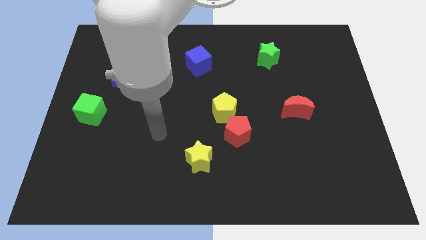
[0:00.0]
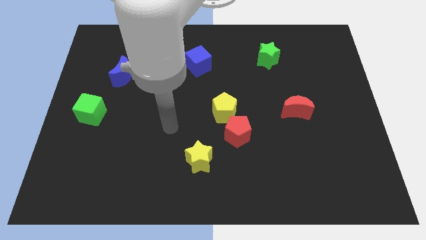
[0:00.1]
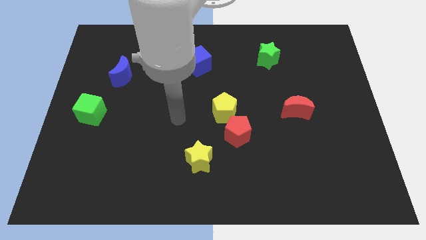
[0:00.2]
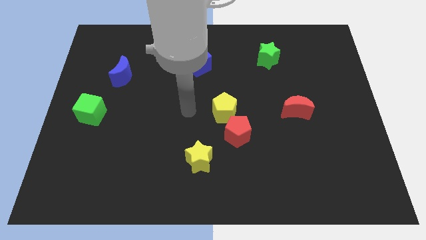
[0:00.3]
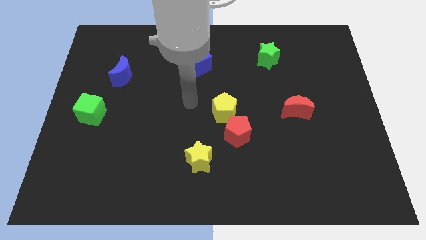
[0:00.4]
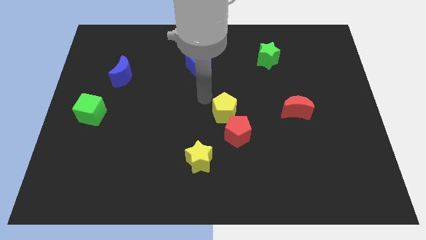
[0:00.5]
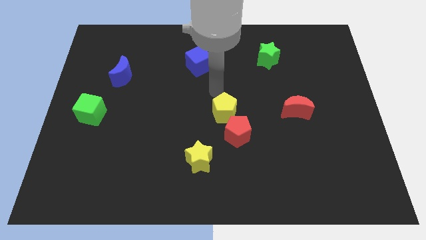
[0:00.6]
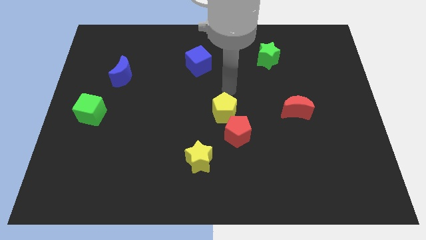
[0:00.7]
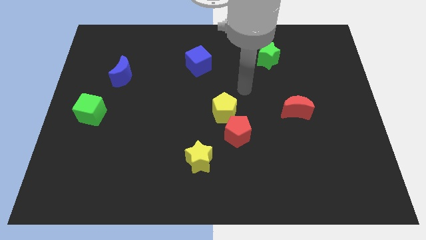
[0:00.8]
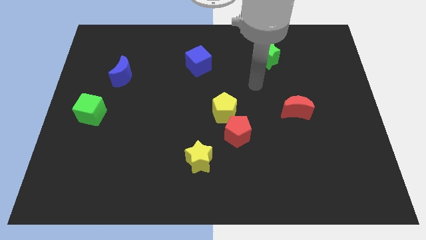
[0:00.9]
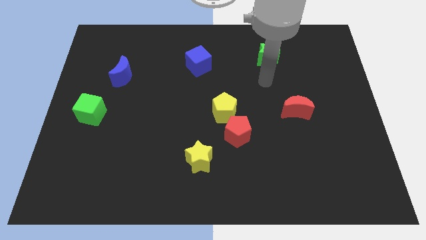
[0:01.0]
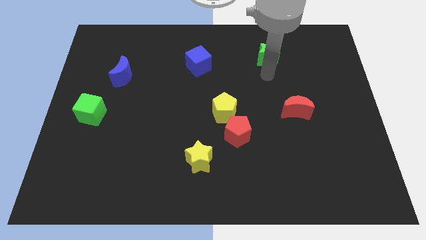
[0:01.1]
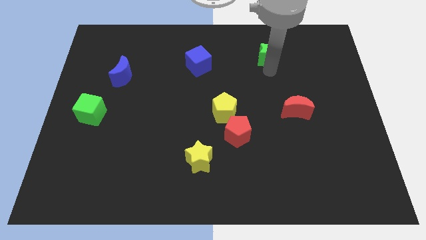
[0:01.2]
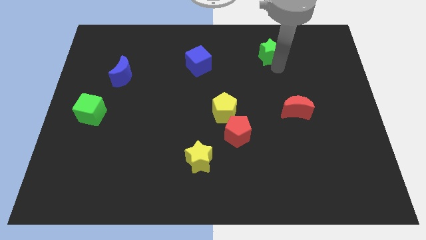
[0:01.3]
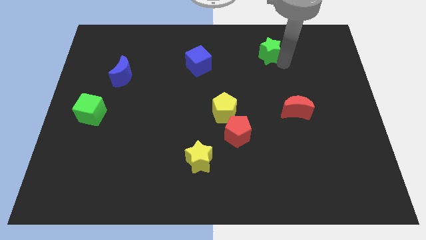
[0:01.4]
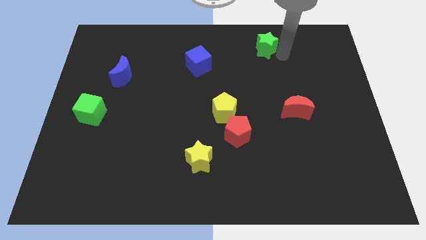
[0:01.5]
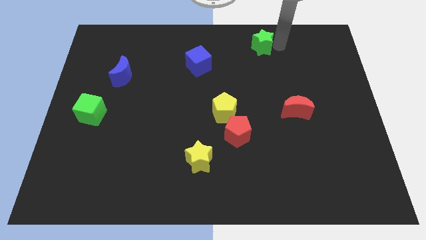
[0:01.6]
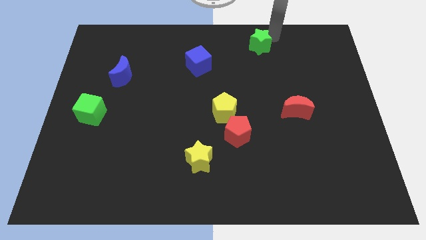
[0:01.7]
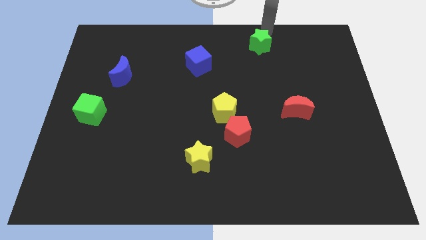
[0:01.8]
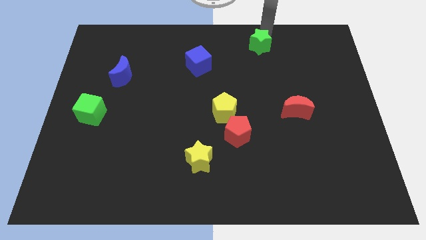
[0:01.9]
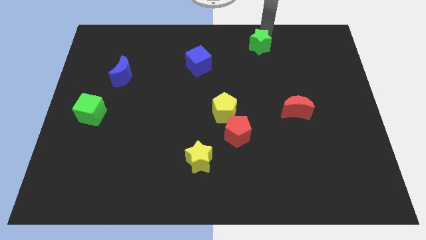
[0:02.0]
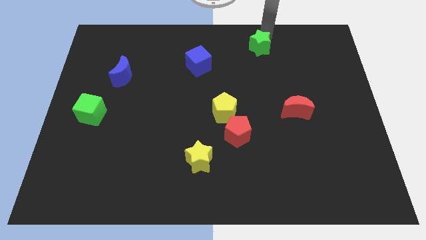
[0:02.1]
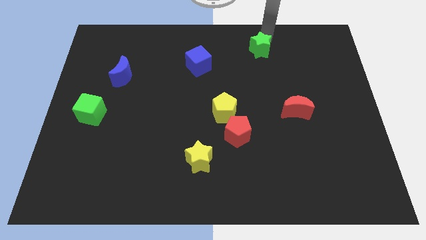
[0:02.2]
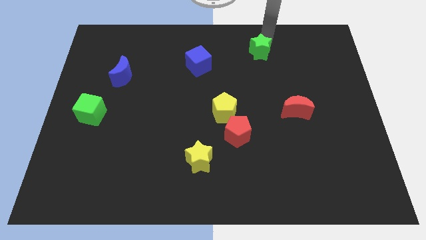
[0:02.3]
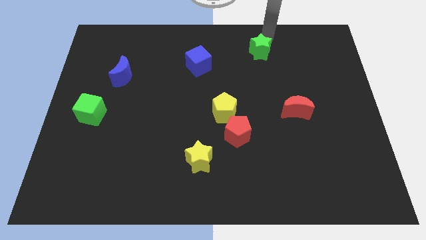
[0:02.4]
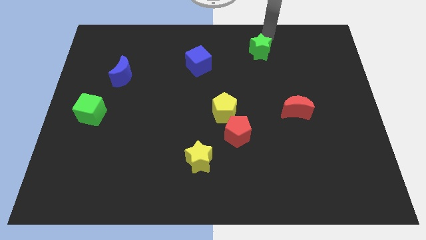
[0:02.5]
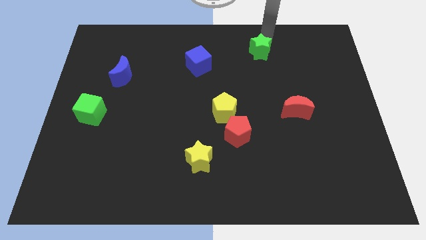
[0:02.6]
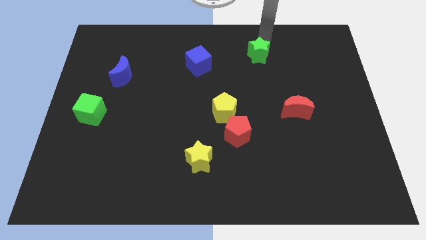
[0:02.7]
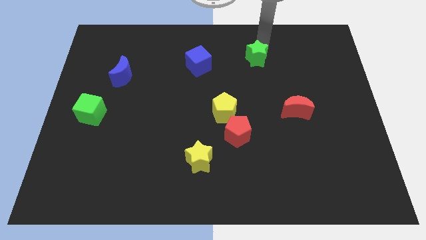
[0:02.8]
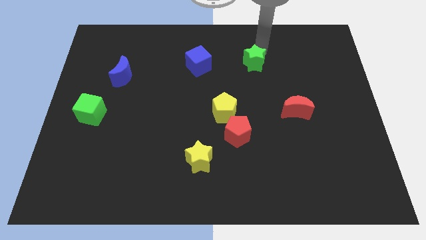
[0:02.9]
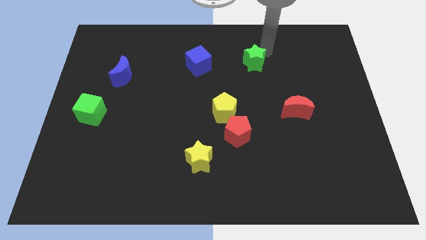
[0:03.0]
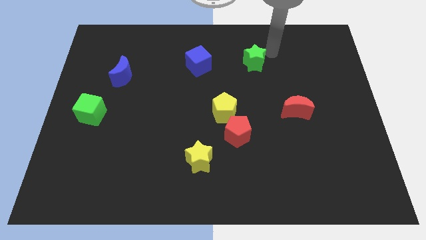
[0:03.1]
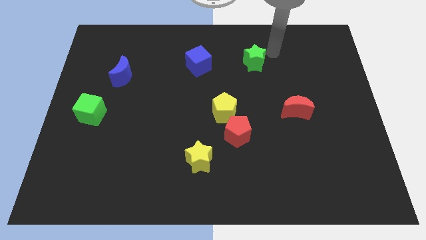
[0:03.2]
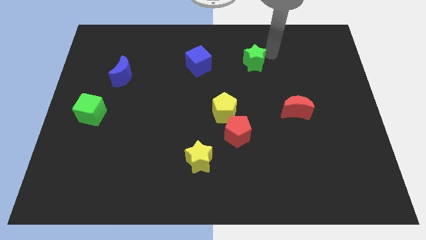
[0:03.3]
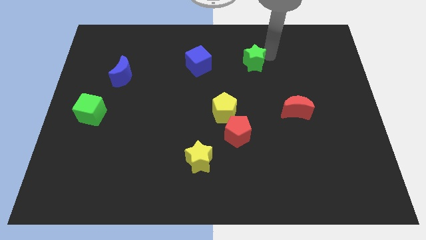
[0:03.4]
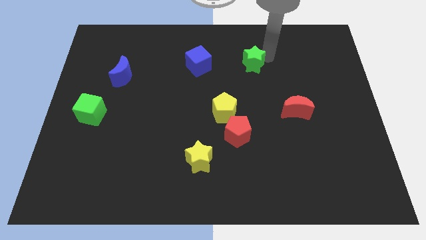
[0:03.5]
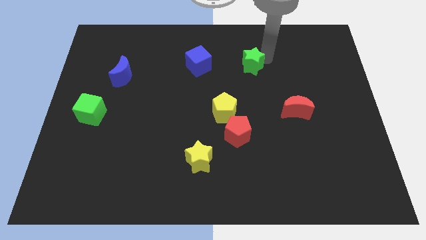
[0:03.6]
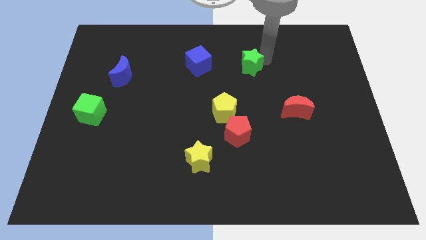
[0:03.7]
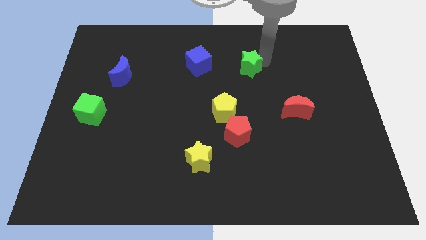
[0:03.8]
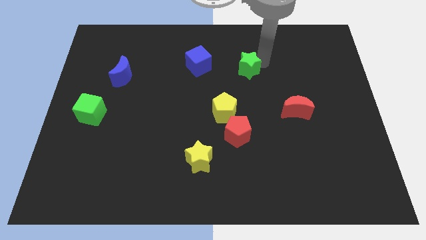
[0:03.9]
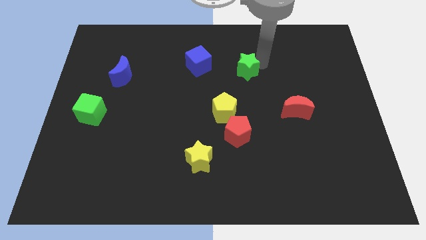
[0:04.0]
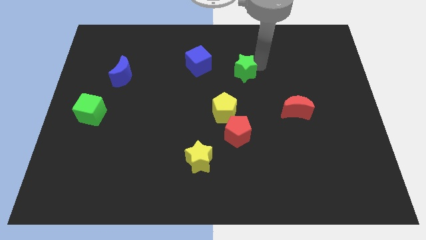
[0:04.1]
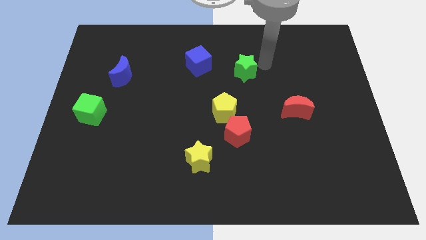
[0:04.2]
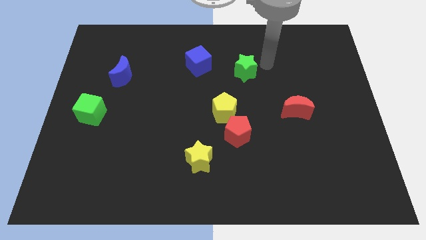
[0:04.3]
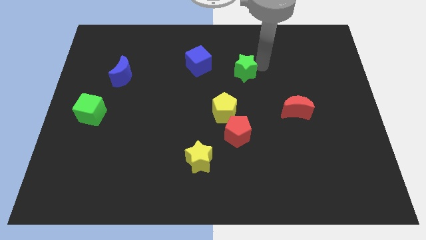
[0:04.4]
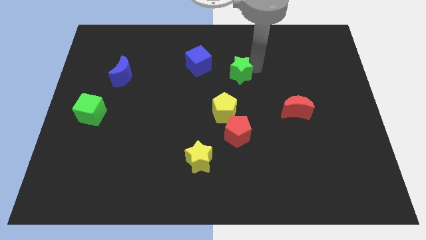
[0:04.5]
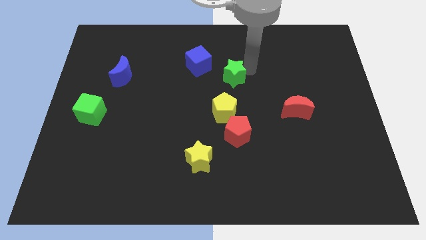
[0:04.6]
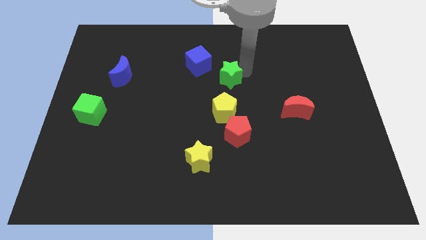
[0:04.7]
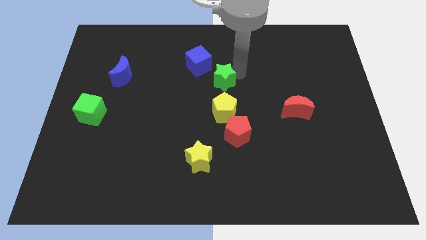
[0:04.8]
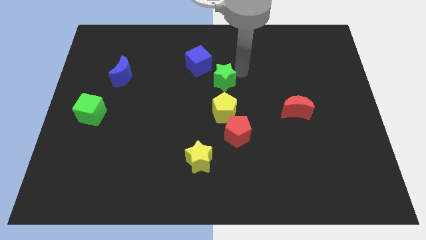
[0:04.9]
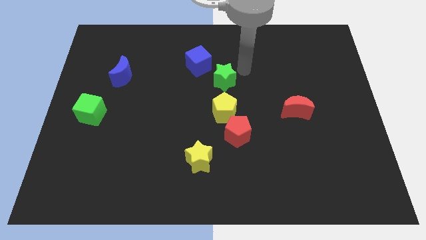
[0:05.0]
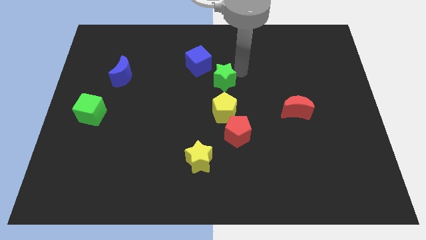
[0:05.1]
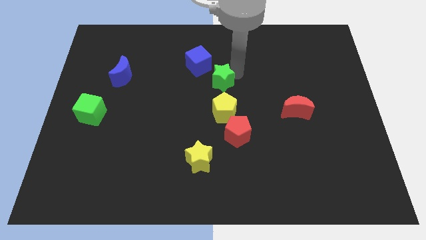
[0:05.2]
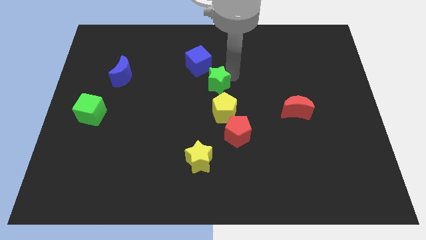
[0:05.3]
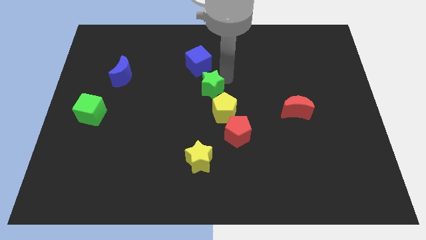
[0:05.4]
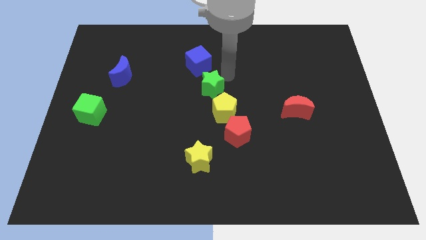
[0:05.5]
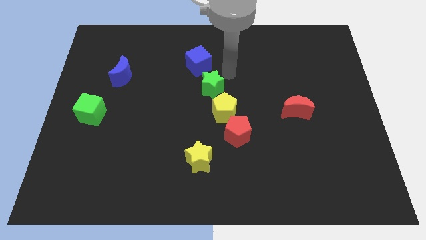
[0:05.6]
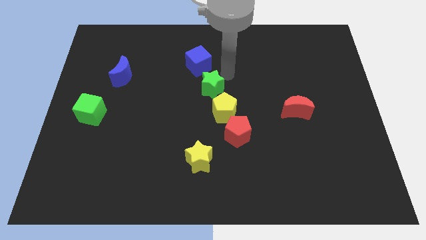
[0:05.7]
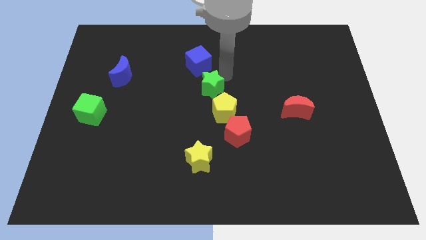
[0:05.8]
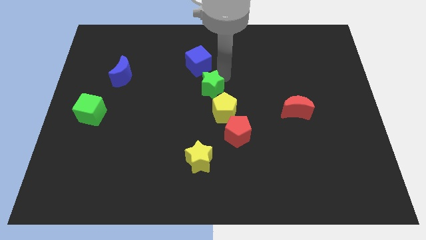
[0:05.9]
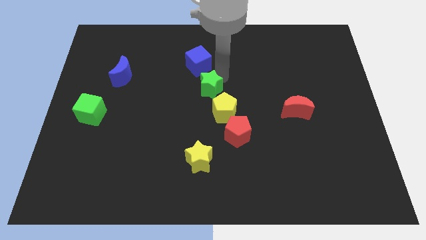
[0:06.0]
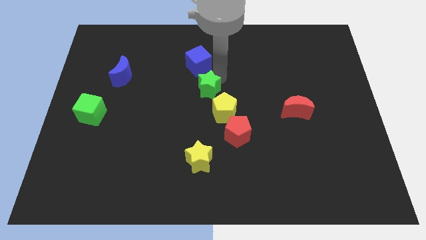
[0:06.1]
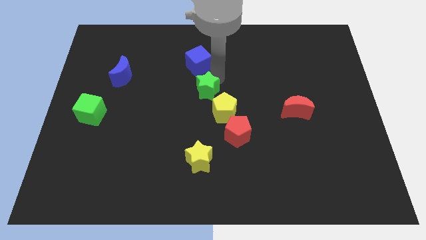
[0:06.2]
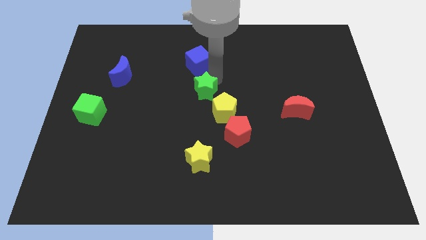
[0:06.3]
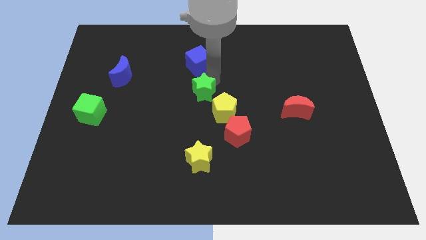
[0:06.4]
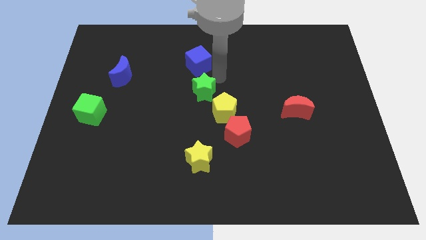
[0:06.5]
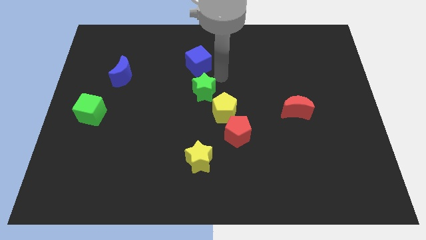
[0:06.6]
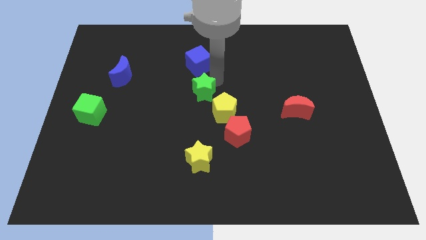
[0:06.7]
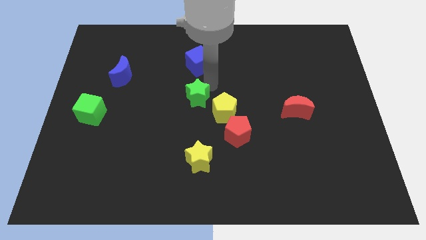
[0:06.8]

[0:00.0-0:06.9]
put the green star left of the yellow pentagon

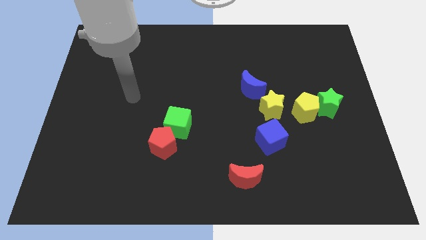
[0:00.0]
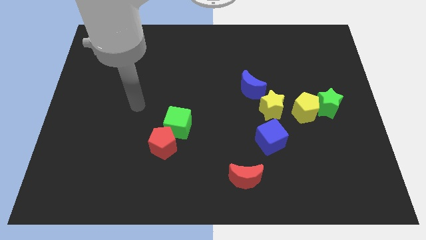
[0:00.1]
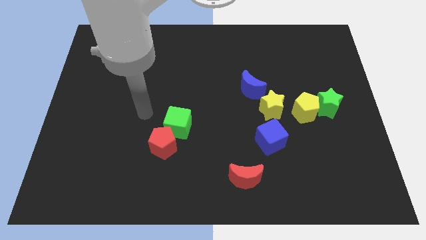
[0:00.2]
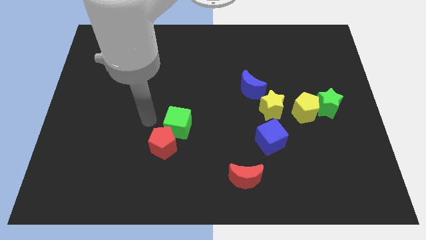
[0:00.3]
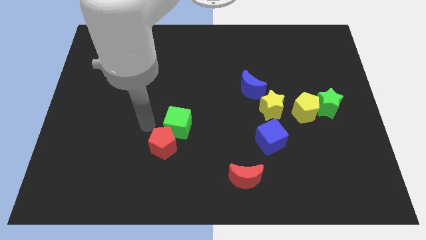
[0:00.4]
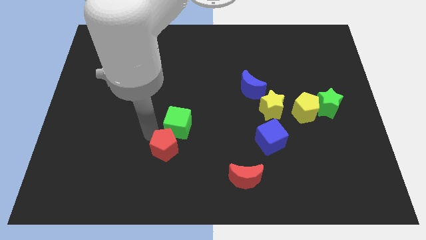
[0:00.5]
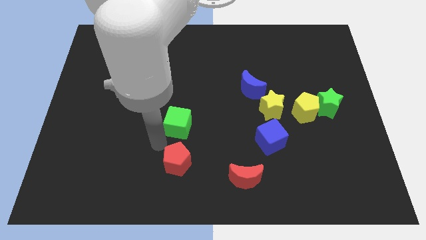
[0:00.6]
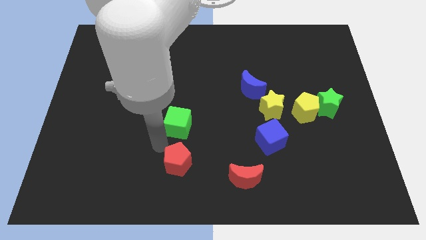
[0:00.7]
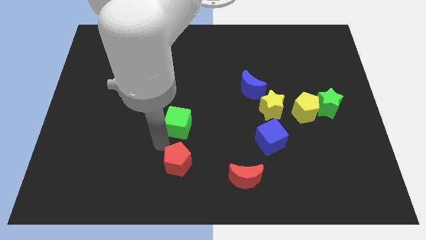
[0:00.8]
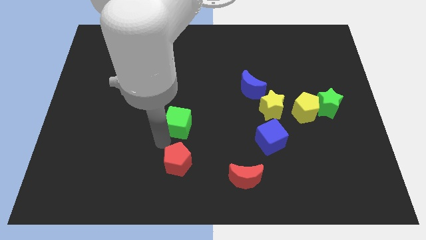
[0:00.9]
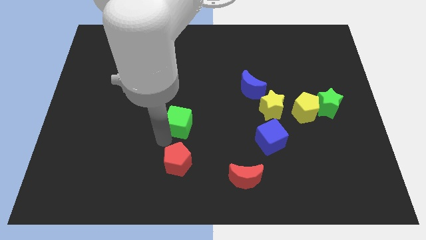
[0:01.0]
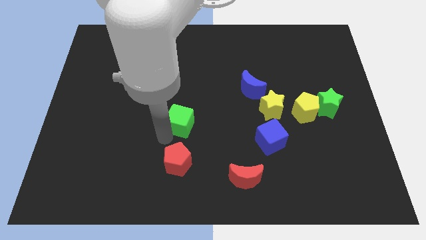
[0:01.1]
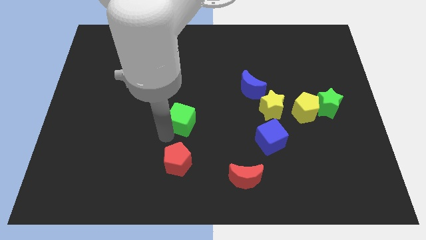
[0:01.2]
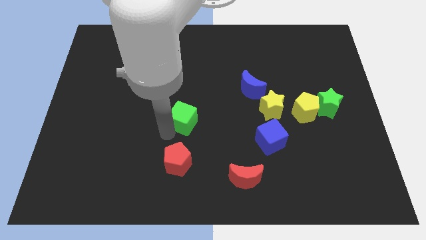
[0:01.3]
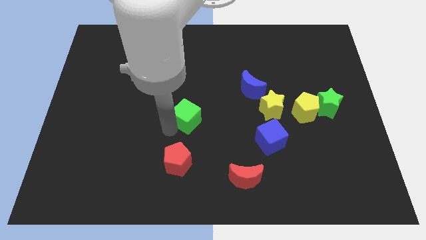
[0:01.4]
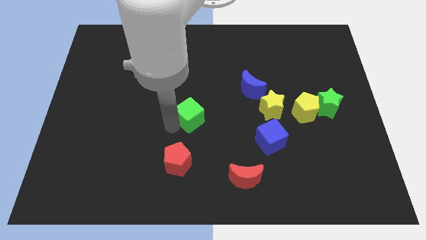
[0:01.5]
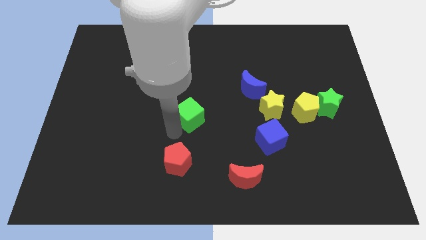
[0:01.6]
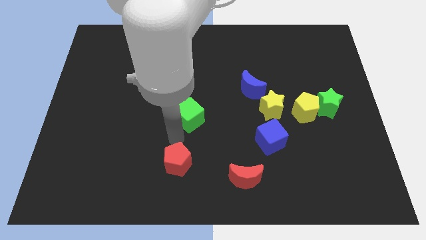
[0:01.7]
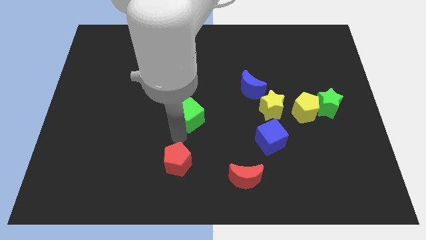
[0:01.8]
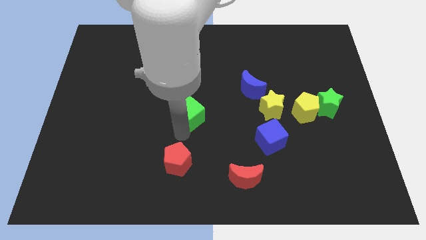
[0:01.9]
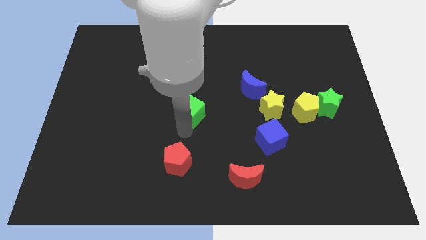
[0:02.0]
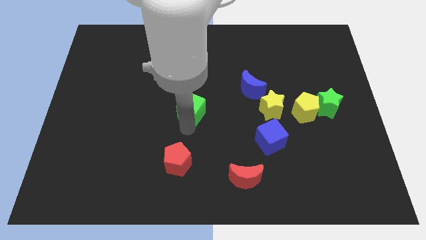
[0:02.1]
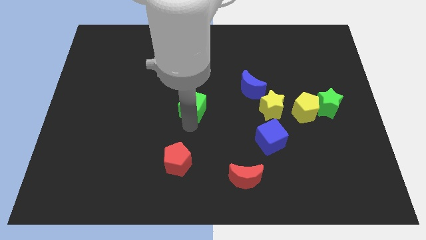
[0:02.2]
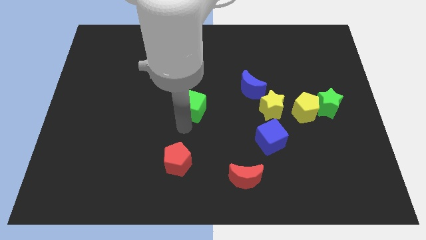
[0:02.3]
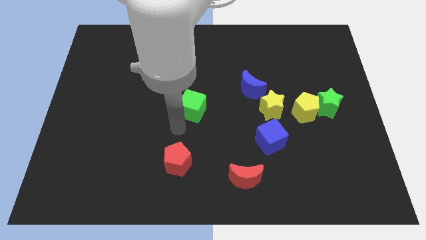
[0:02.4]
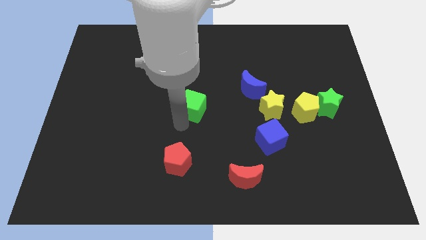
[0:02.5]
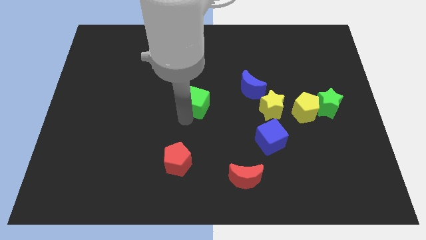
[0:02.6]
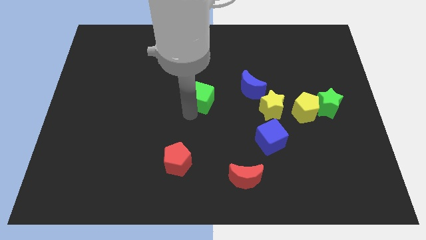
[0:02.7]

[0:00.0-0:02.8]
slide the green cube just left of the blue moon
